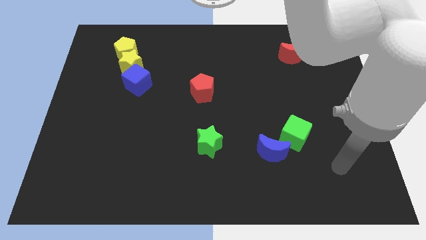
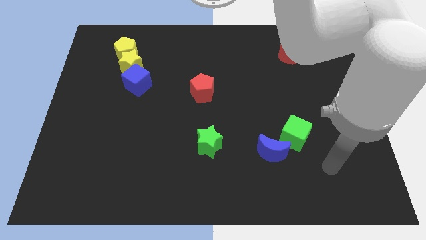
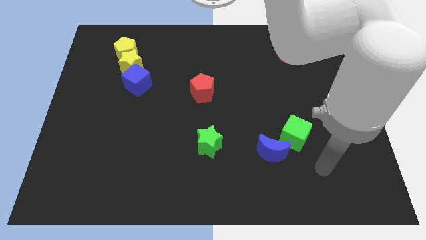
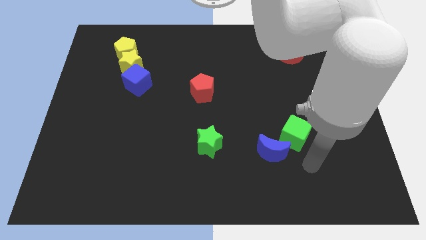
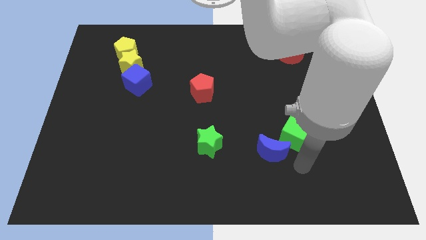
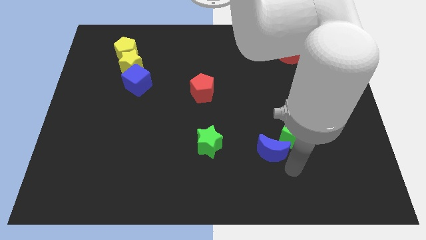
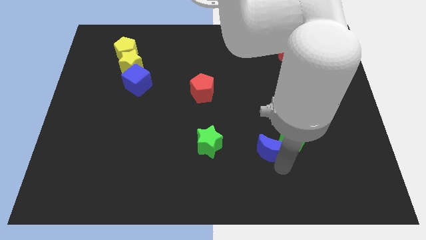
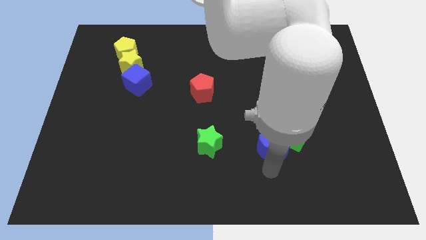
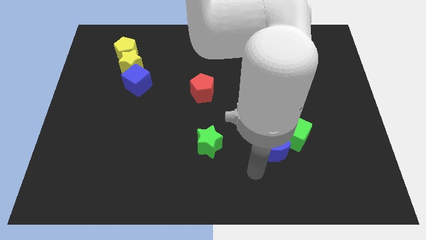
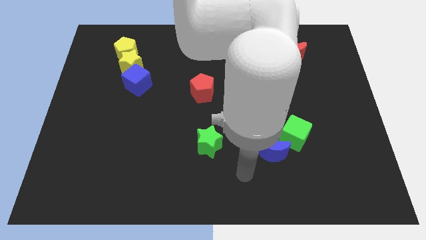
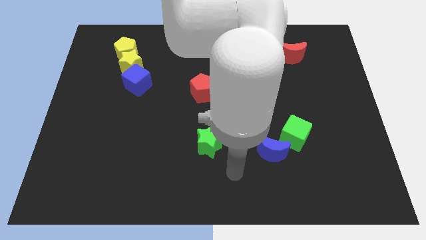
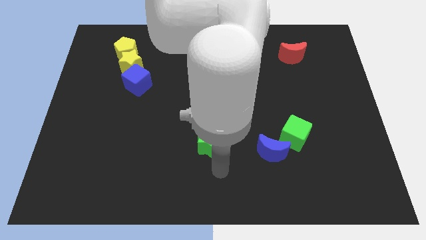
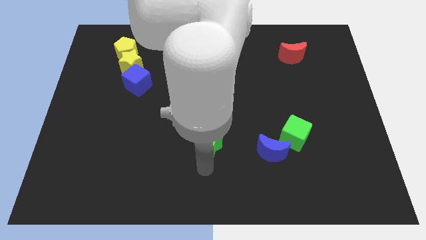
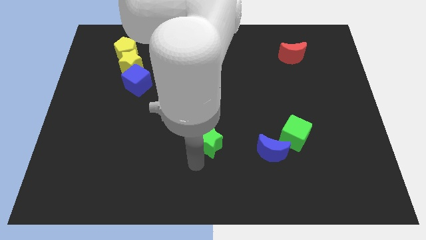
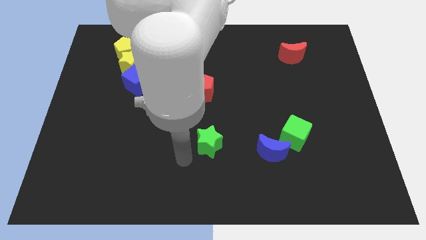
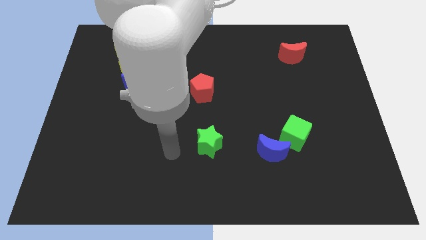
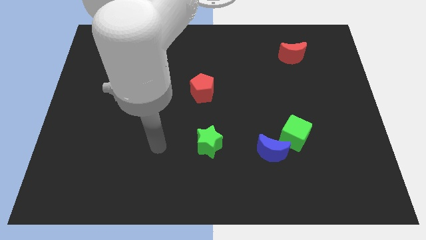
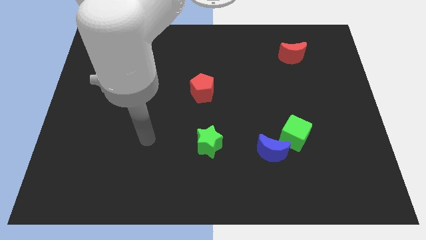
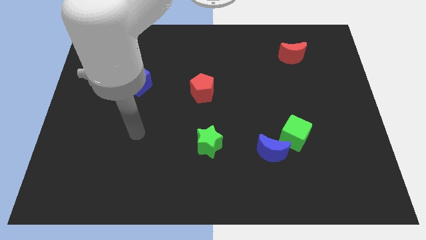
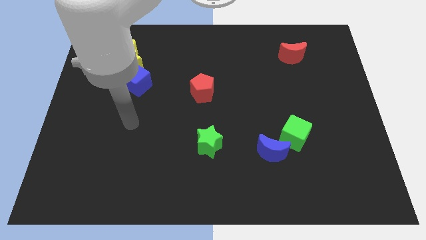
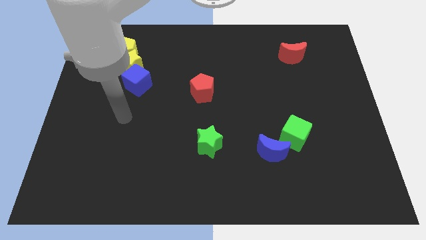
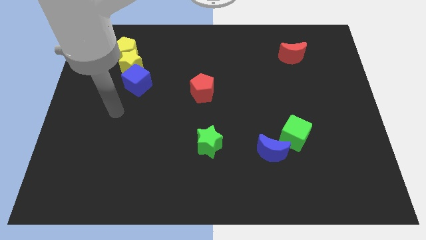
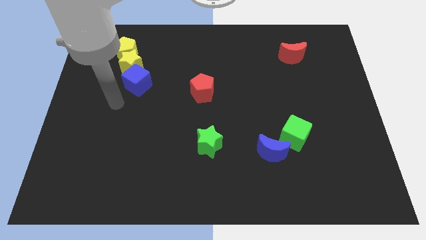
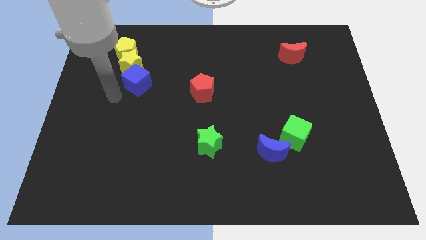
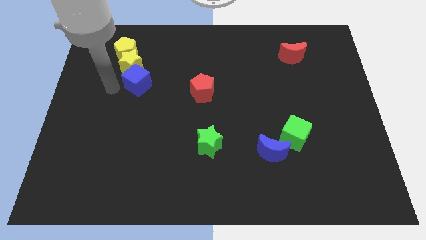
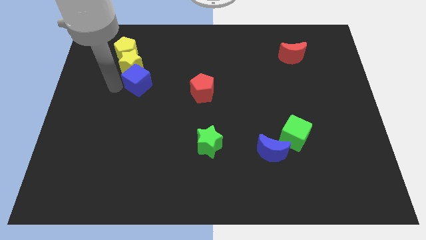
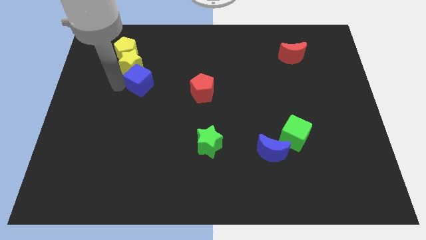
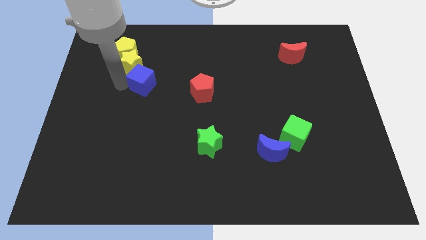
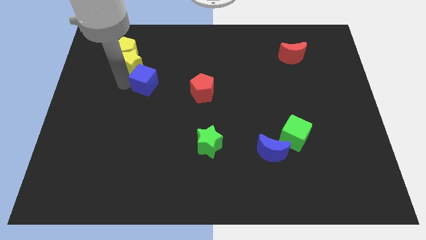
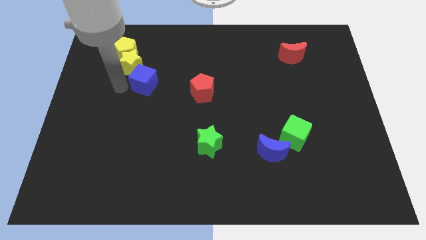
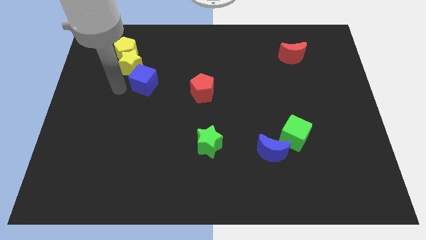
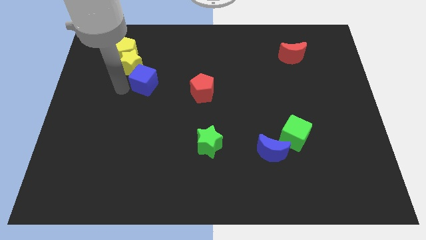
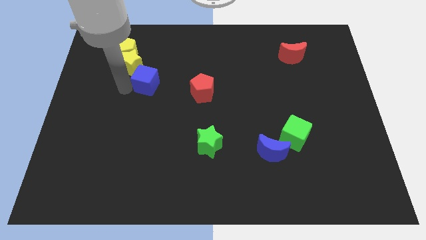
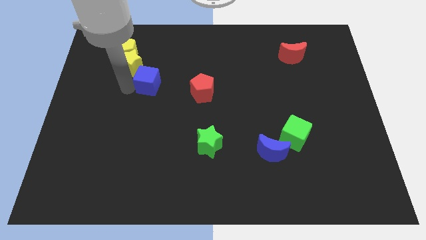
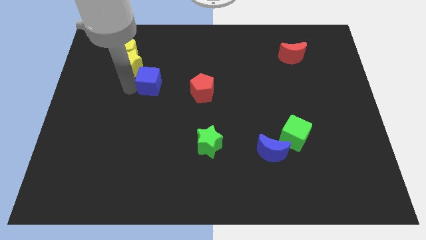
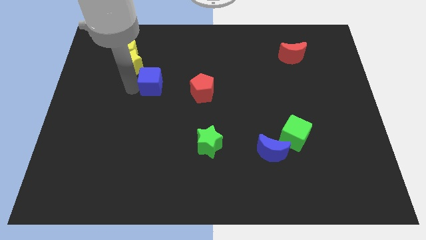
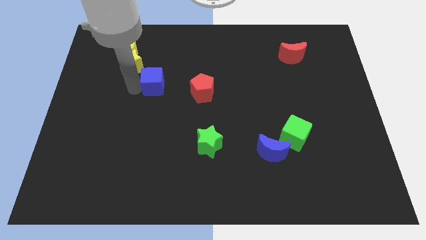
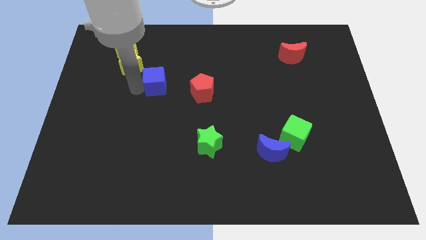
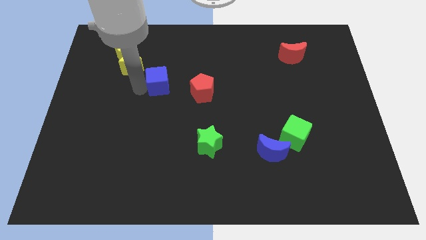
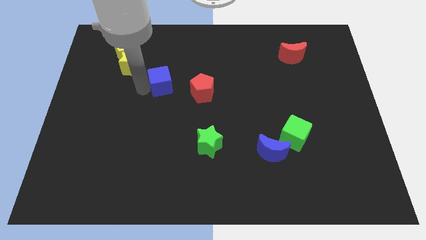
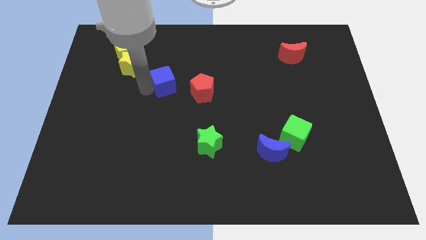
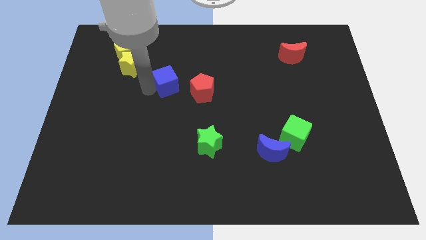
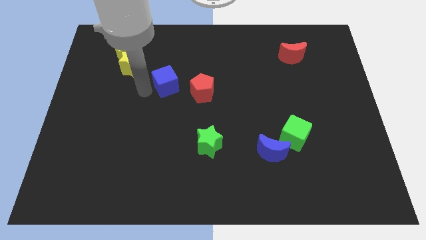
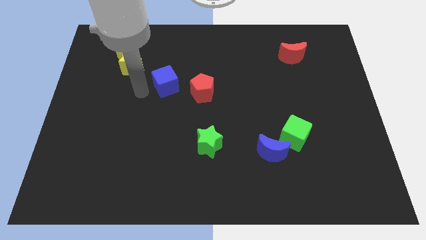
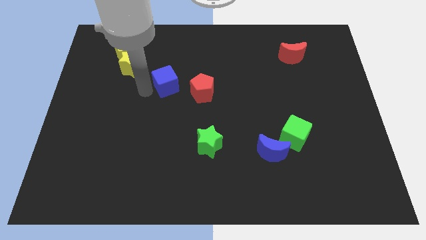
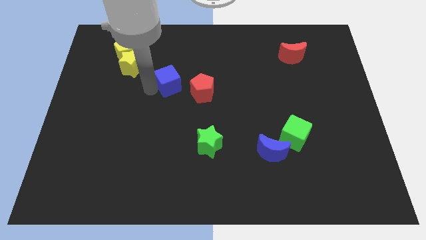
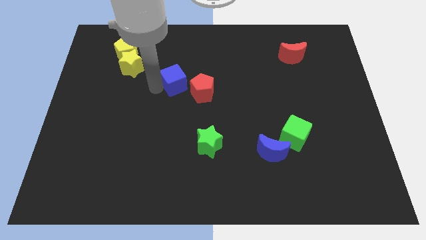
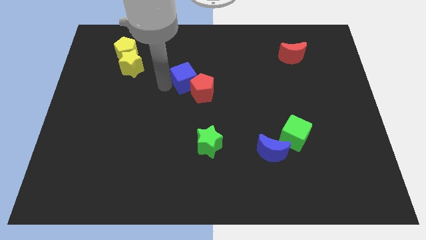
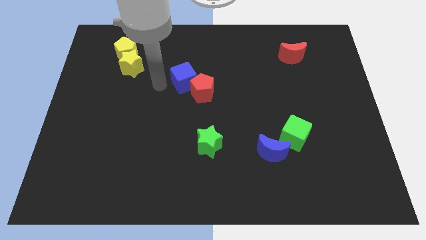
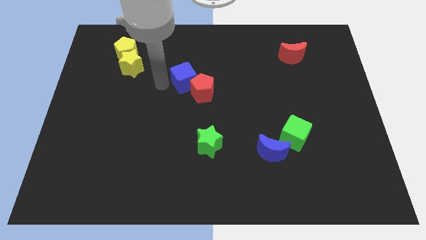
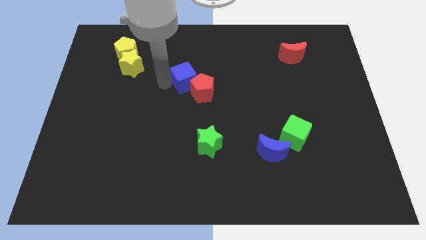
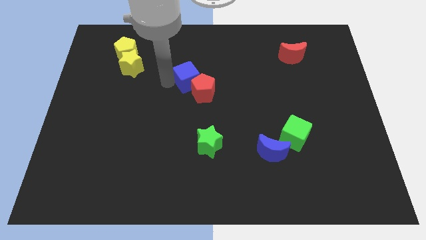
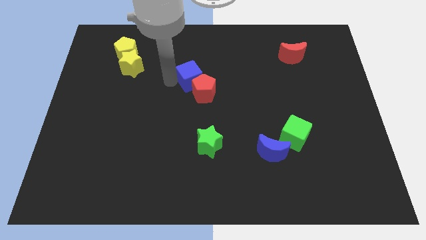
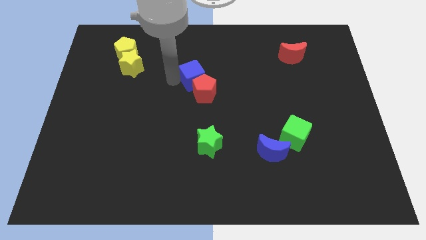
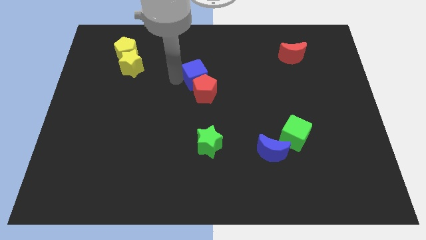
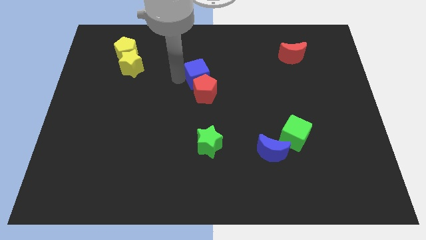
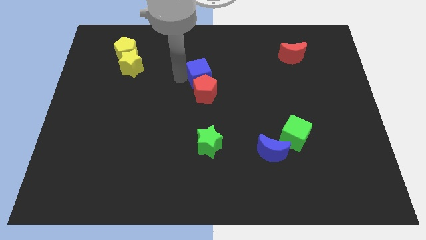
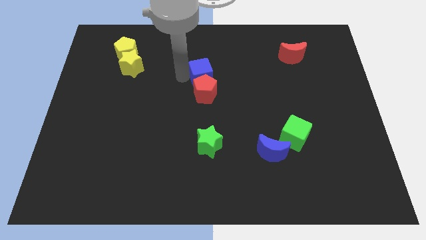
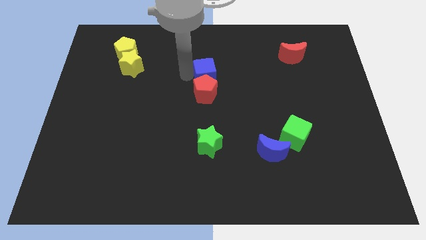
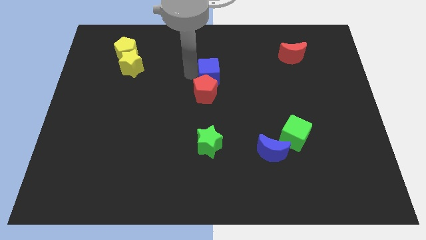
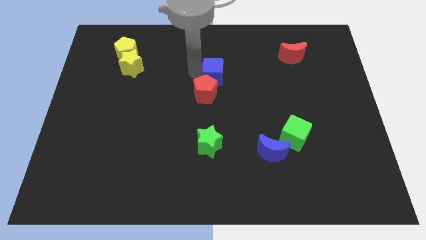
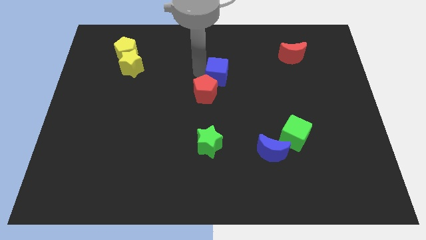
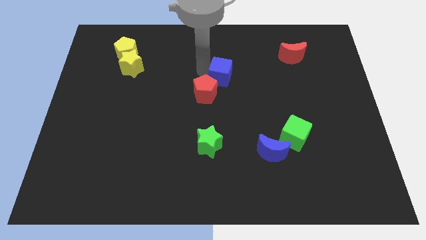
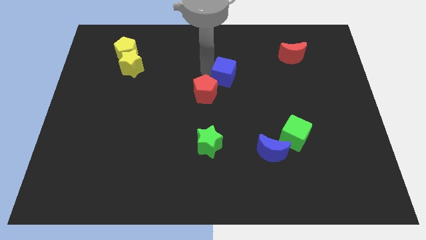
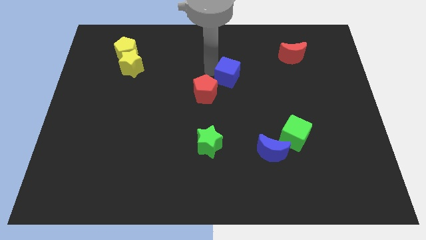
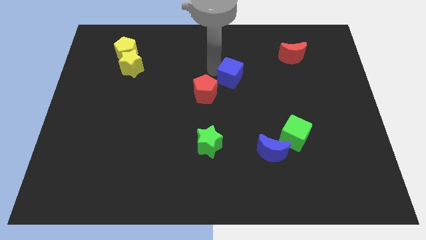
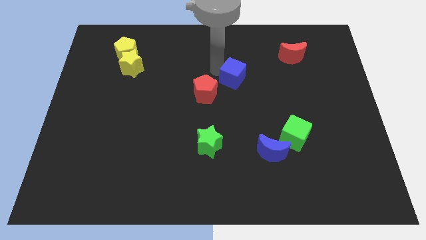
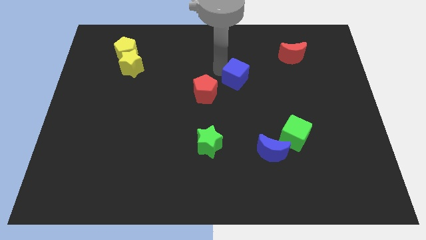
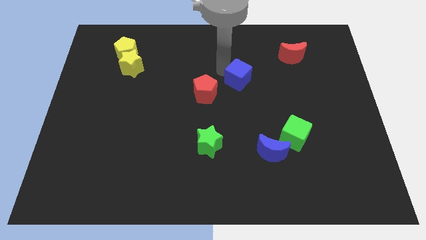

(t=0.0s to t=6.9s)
push the blue cube right of the red pentagon
